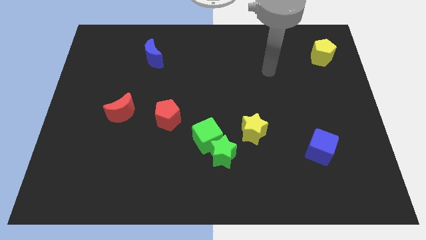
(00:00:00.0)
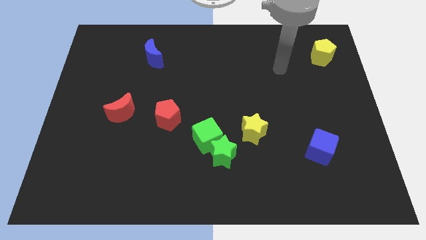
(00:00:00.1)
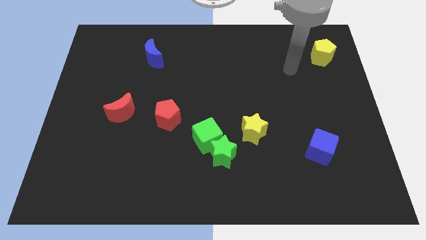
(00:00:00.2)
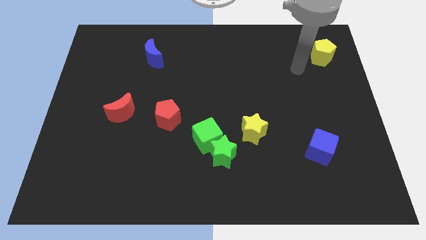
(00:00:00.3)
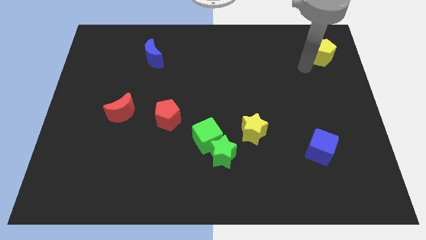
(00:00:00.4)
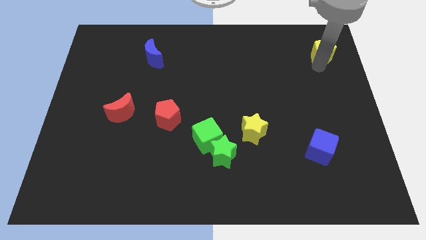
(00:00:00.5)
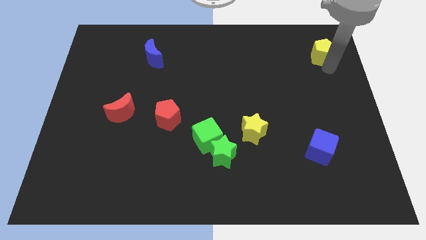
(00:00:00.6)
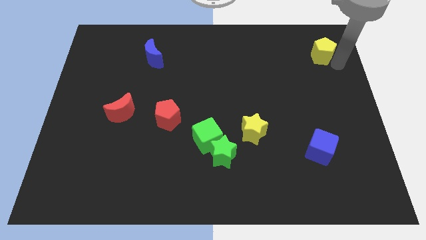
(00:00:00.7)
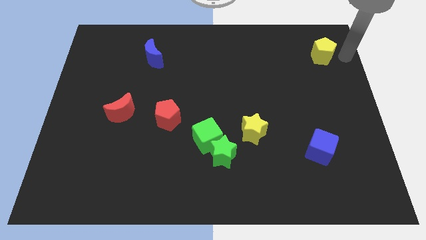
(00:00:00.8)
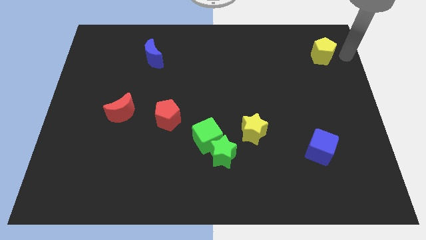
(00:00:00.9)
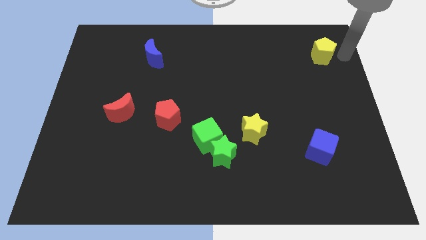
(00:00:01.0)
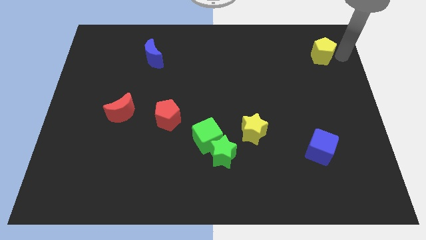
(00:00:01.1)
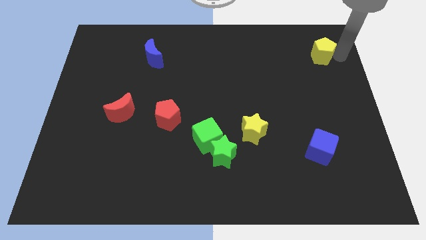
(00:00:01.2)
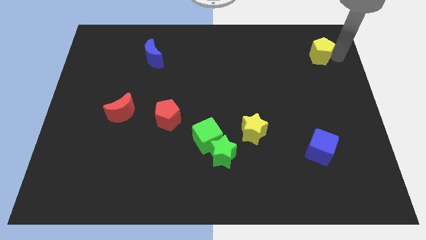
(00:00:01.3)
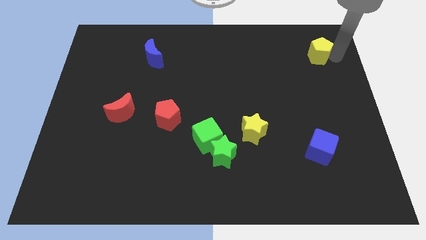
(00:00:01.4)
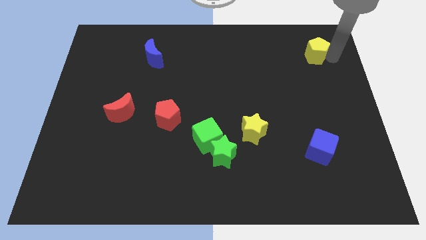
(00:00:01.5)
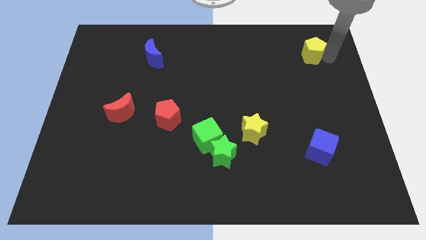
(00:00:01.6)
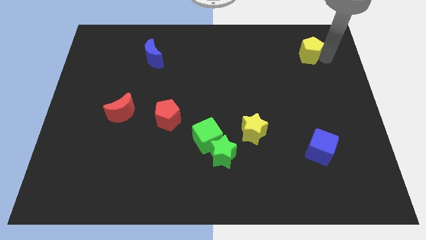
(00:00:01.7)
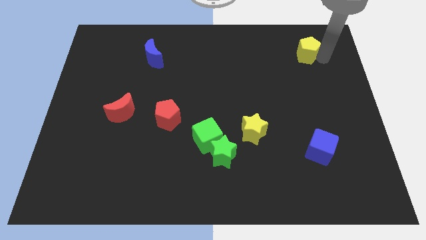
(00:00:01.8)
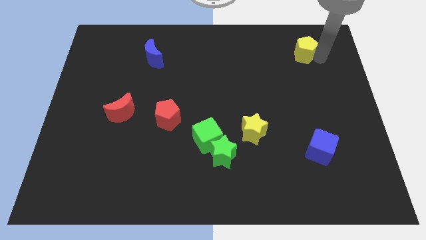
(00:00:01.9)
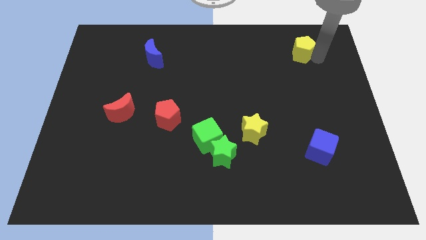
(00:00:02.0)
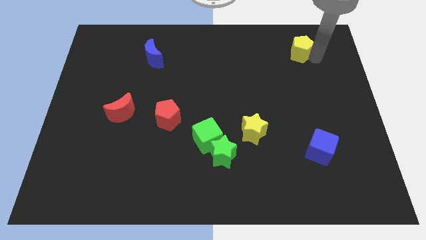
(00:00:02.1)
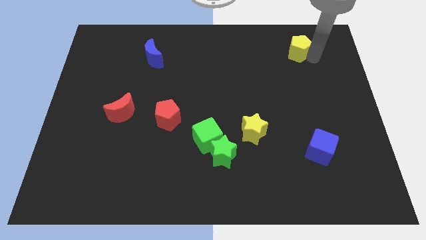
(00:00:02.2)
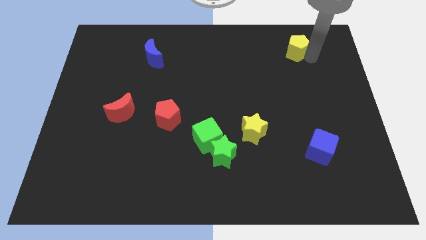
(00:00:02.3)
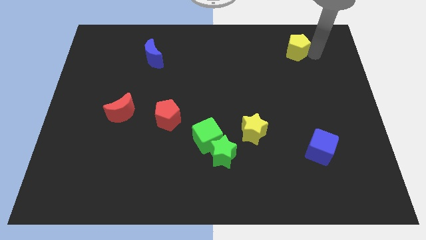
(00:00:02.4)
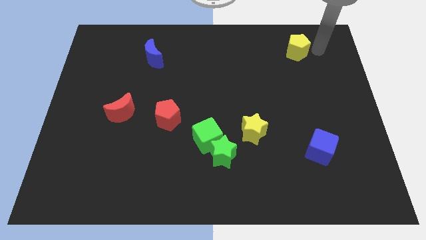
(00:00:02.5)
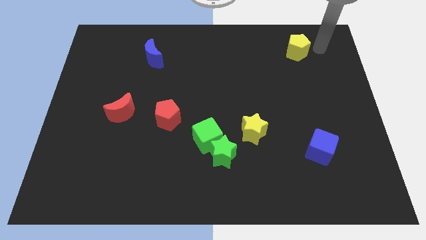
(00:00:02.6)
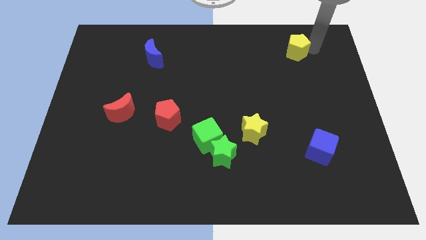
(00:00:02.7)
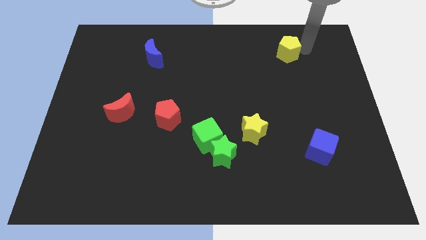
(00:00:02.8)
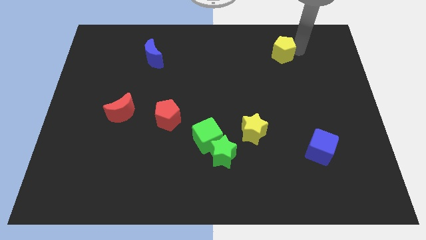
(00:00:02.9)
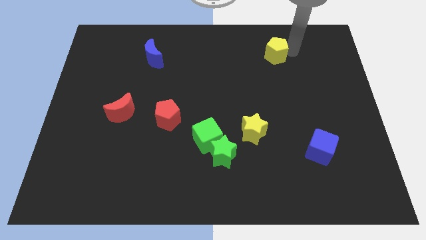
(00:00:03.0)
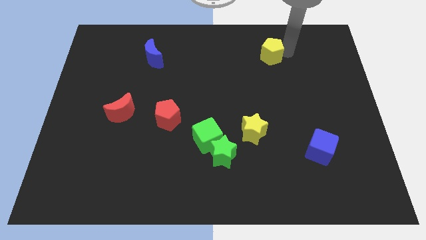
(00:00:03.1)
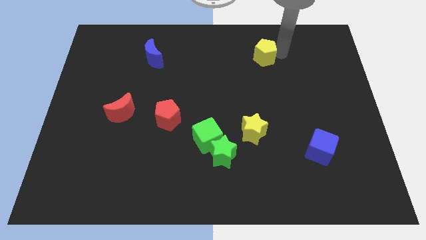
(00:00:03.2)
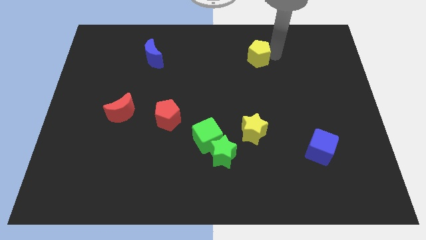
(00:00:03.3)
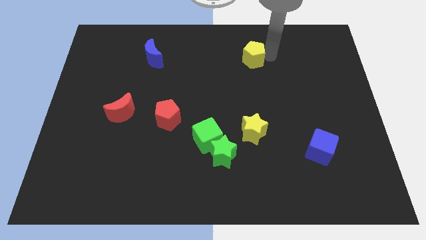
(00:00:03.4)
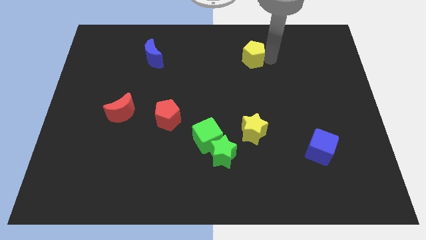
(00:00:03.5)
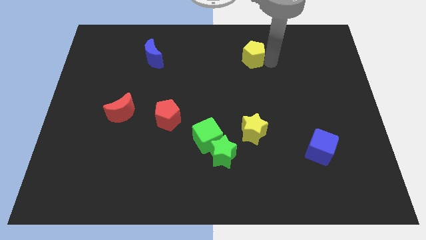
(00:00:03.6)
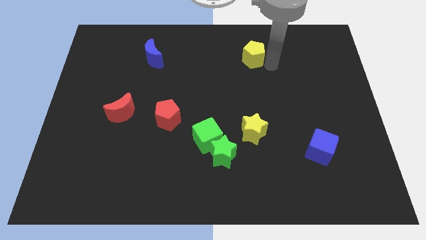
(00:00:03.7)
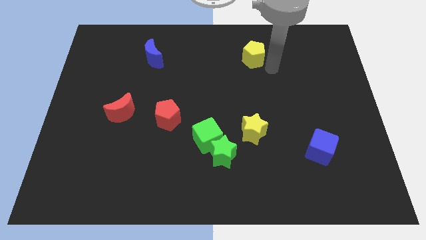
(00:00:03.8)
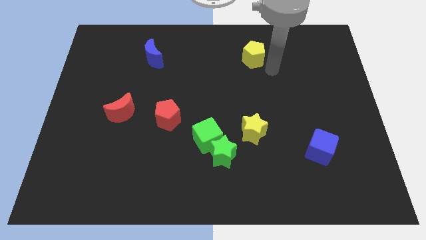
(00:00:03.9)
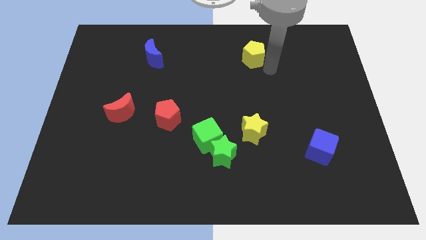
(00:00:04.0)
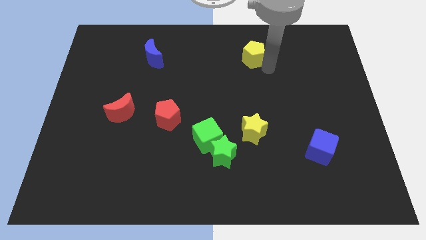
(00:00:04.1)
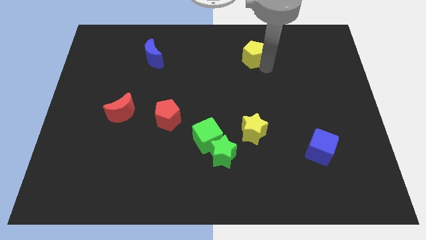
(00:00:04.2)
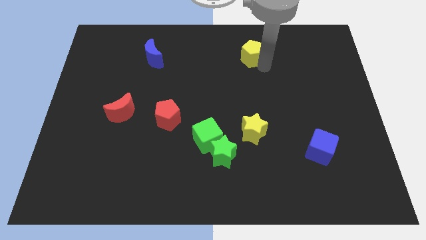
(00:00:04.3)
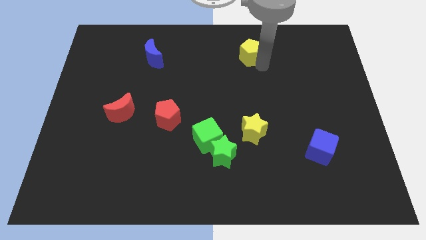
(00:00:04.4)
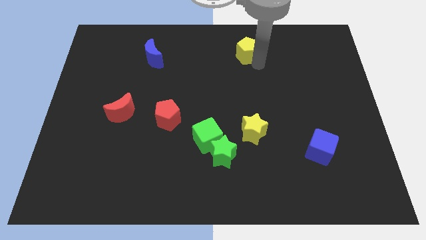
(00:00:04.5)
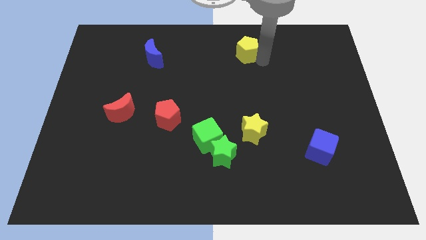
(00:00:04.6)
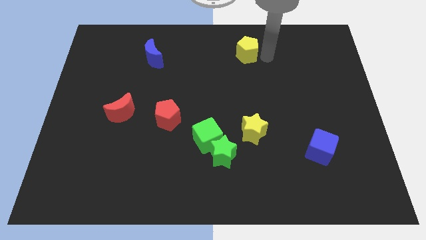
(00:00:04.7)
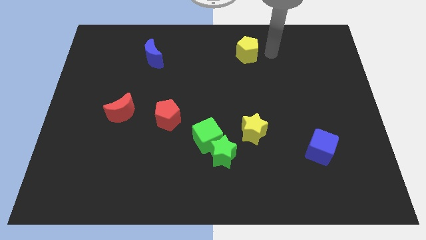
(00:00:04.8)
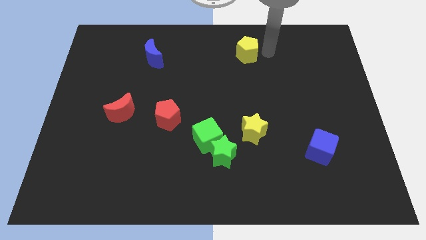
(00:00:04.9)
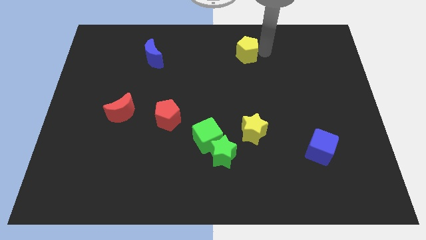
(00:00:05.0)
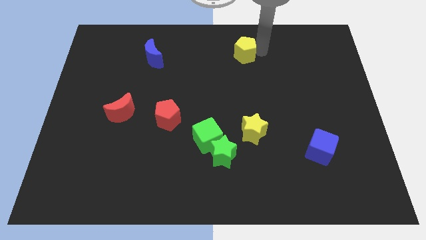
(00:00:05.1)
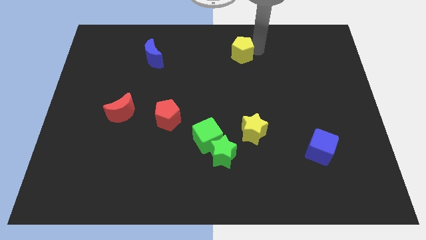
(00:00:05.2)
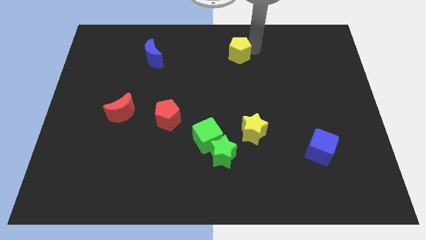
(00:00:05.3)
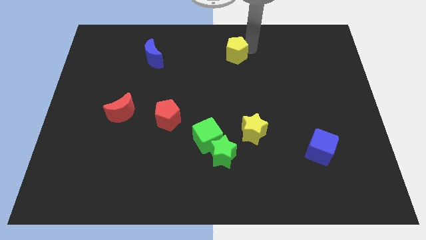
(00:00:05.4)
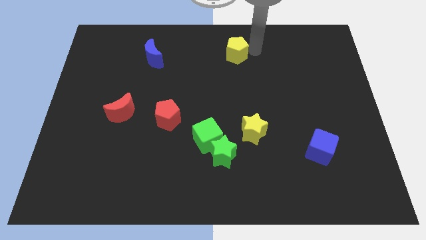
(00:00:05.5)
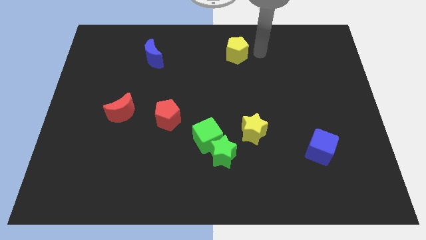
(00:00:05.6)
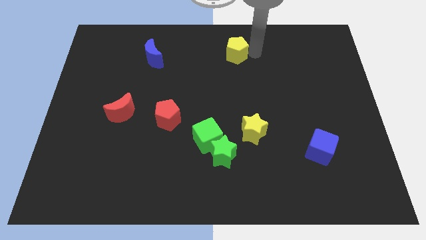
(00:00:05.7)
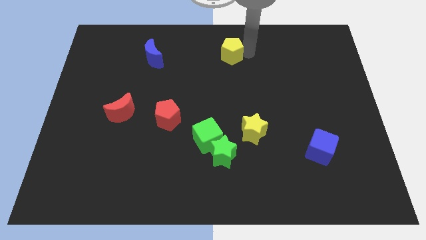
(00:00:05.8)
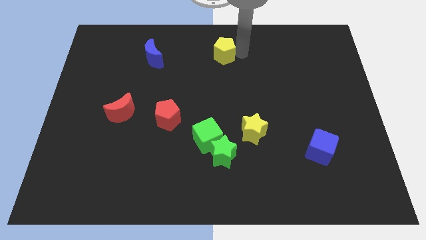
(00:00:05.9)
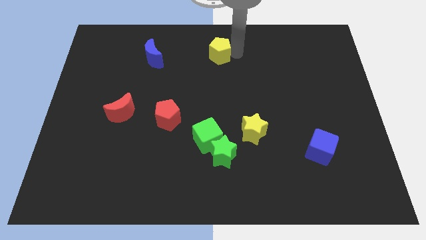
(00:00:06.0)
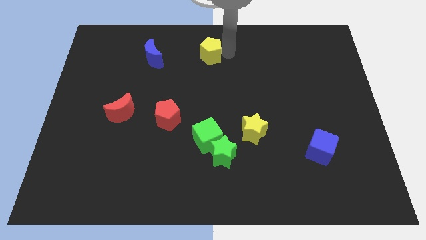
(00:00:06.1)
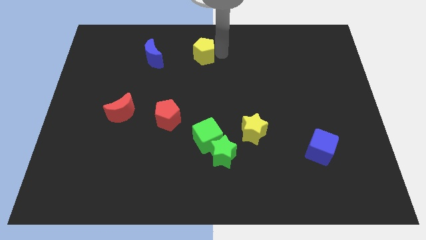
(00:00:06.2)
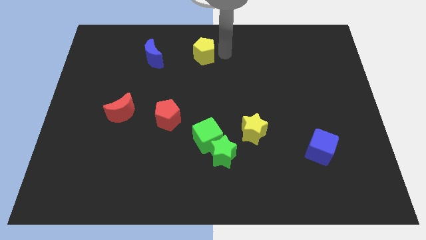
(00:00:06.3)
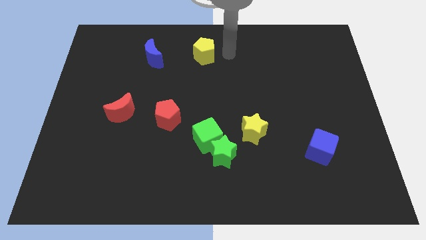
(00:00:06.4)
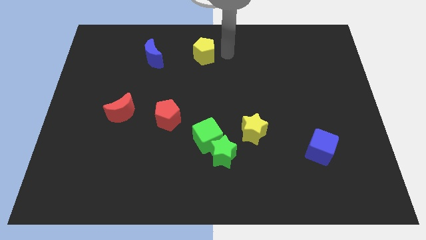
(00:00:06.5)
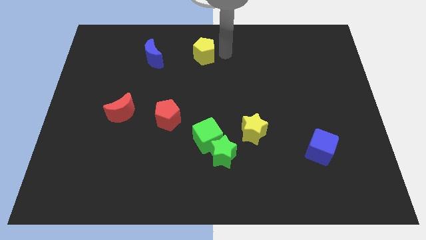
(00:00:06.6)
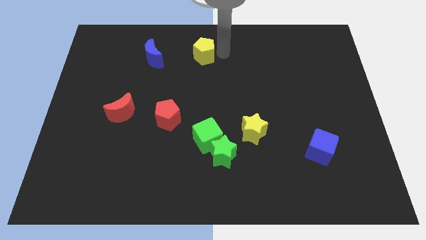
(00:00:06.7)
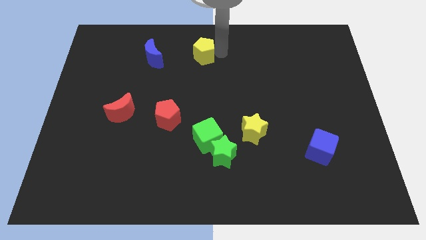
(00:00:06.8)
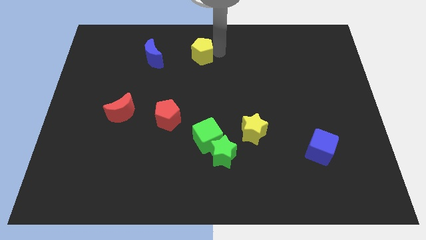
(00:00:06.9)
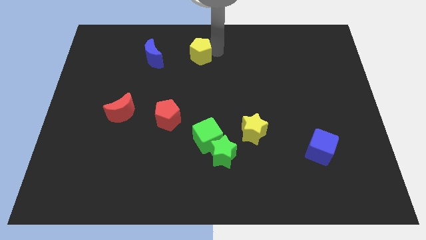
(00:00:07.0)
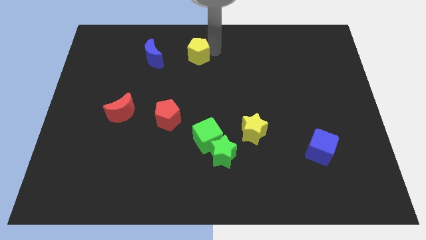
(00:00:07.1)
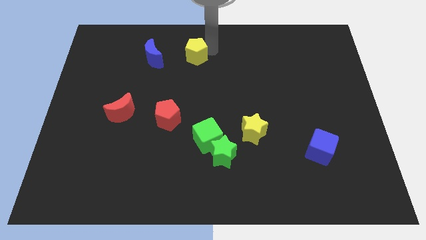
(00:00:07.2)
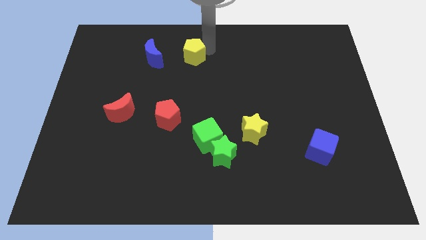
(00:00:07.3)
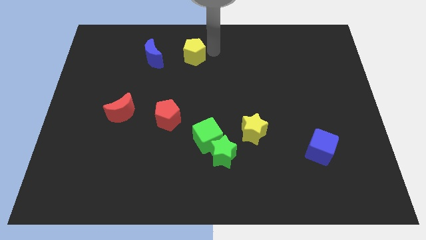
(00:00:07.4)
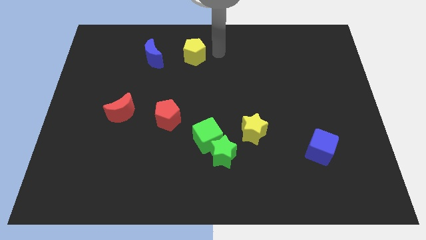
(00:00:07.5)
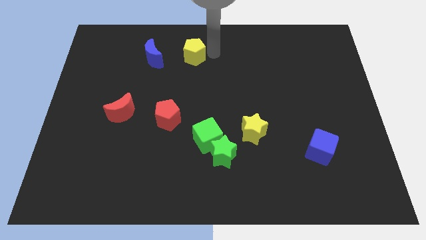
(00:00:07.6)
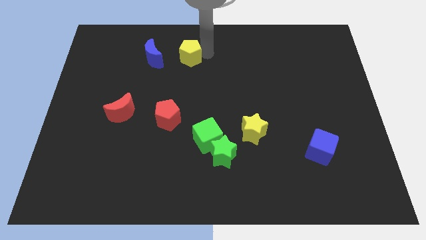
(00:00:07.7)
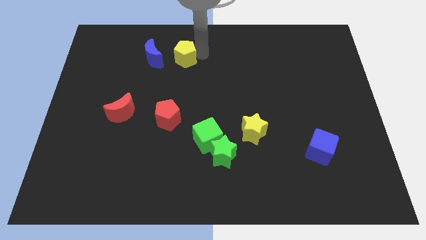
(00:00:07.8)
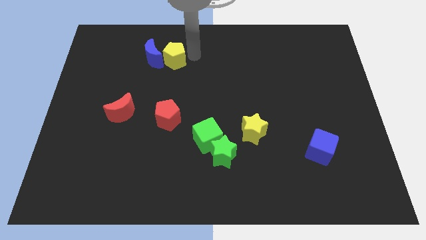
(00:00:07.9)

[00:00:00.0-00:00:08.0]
push the yellow pentagon to the blue moon
